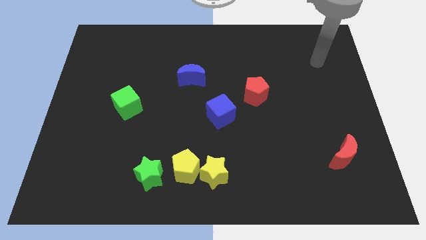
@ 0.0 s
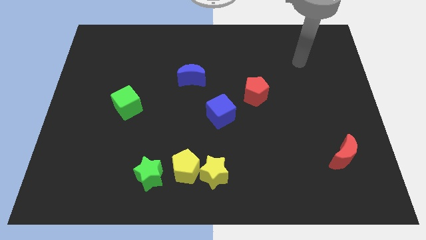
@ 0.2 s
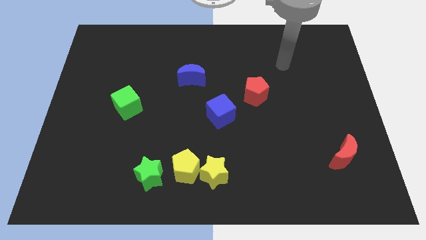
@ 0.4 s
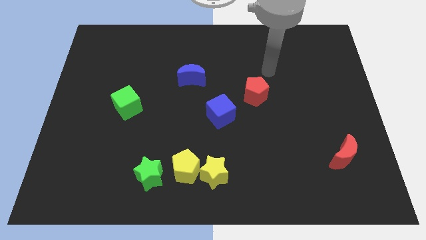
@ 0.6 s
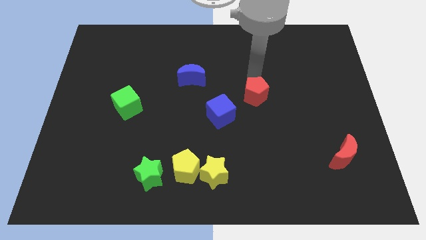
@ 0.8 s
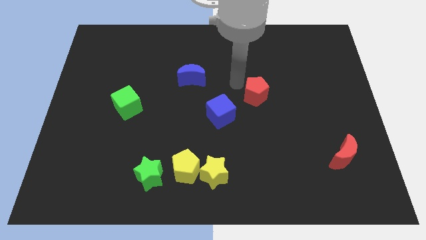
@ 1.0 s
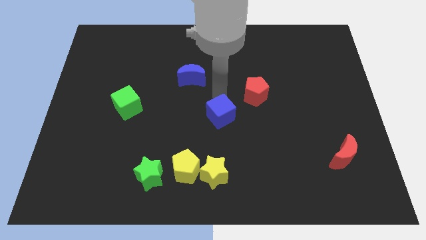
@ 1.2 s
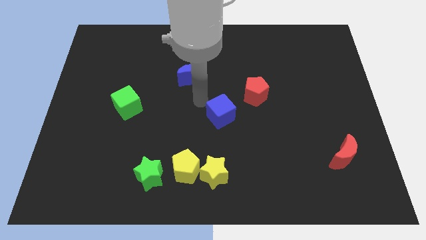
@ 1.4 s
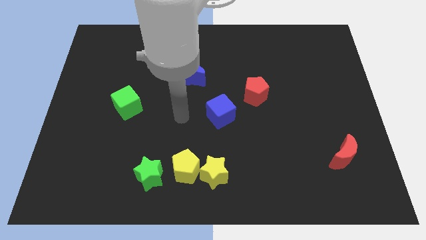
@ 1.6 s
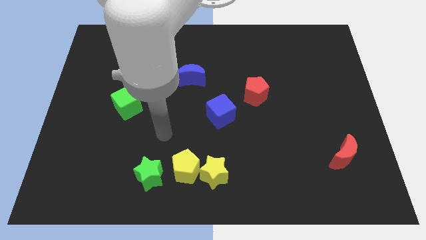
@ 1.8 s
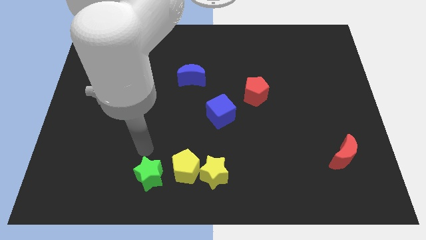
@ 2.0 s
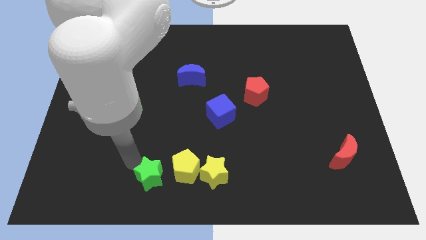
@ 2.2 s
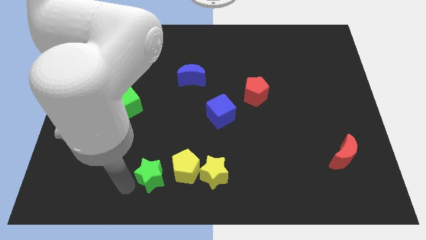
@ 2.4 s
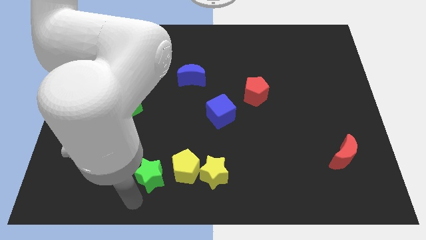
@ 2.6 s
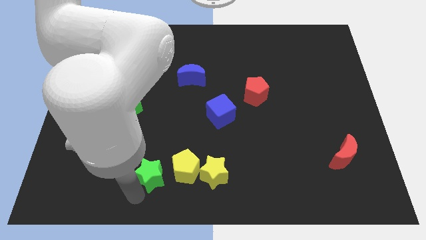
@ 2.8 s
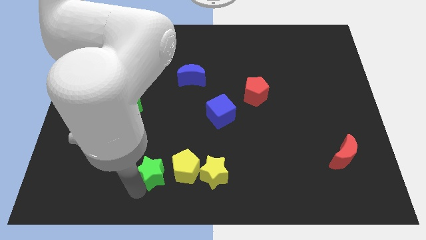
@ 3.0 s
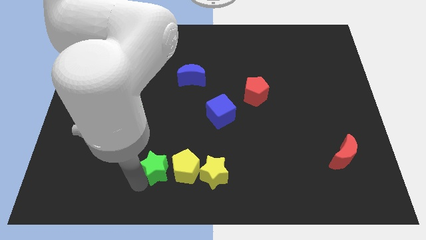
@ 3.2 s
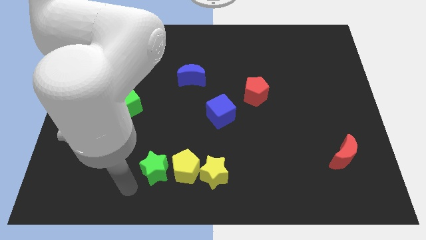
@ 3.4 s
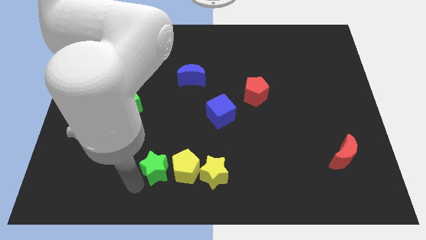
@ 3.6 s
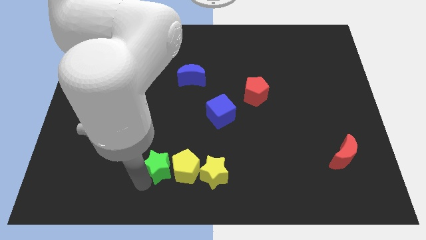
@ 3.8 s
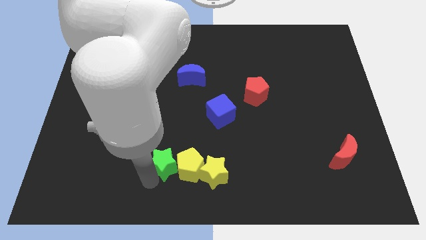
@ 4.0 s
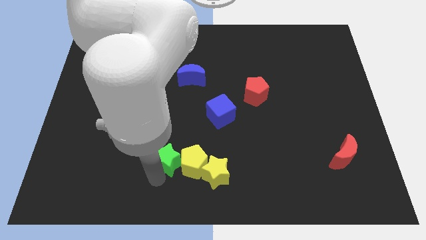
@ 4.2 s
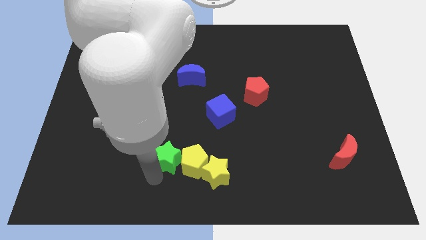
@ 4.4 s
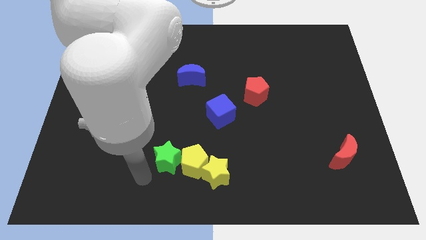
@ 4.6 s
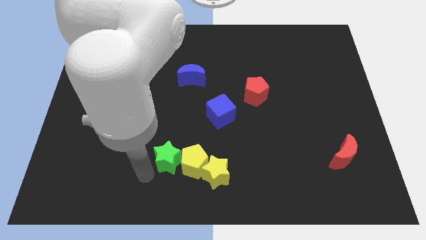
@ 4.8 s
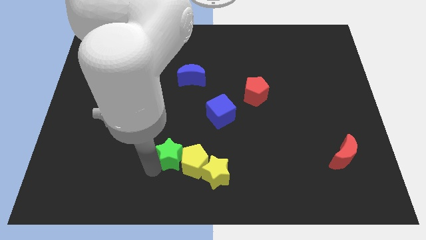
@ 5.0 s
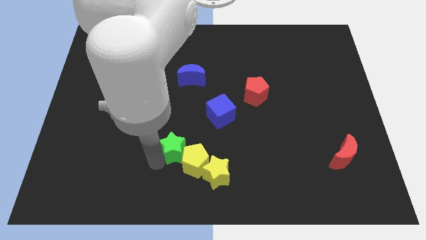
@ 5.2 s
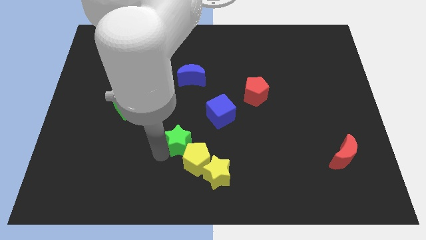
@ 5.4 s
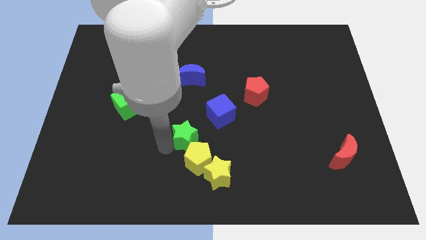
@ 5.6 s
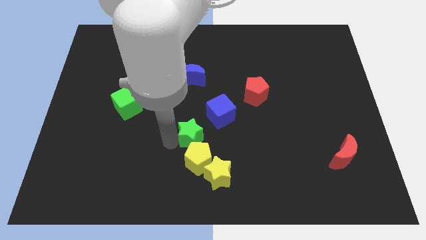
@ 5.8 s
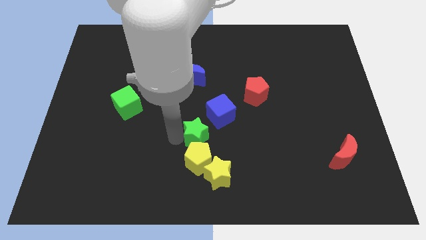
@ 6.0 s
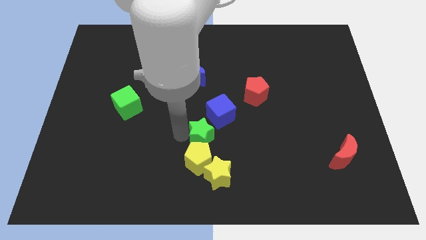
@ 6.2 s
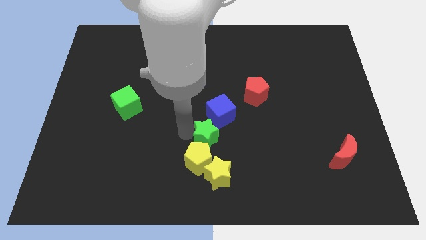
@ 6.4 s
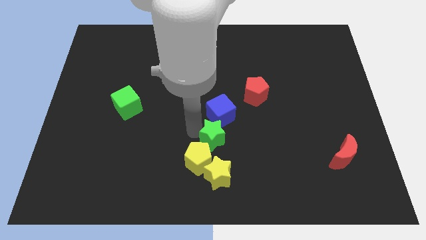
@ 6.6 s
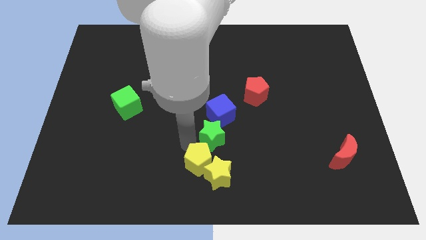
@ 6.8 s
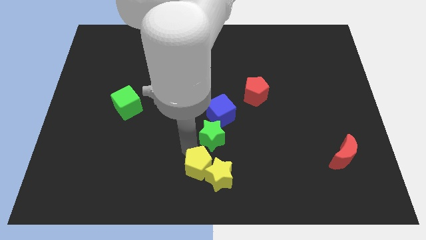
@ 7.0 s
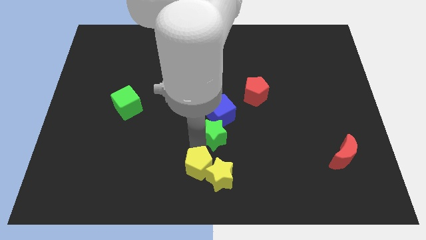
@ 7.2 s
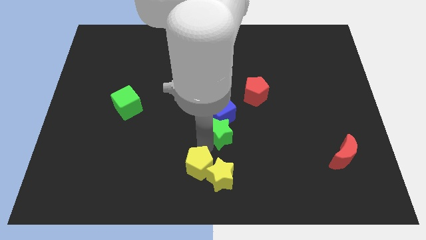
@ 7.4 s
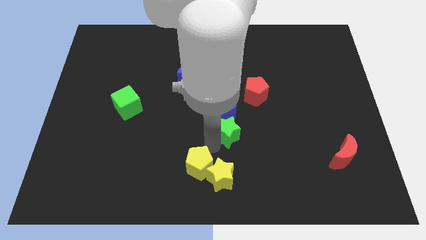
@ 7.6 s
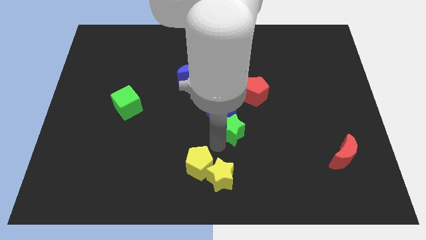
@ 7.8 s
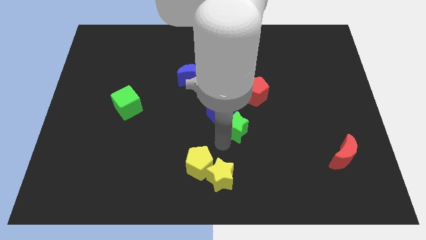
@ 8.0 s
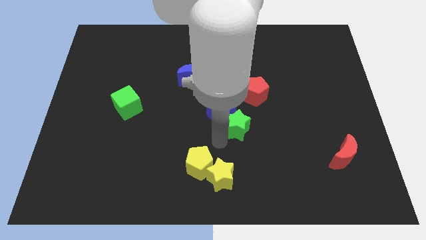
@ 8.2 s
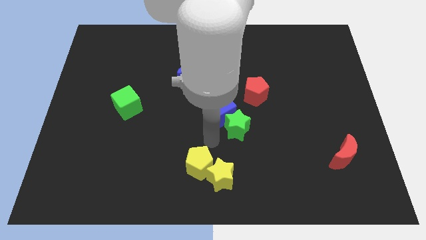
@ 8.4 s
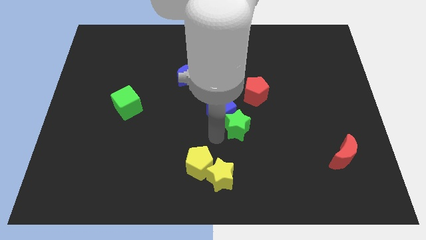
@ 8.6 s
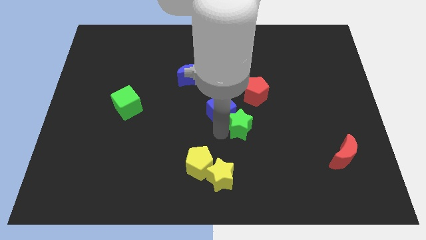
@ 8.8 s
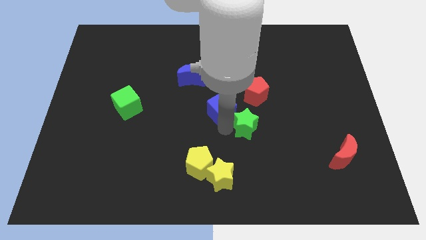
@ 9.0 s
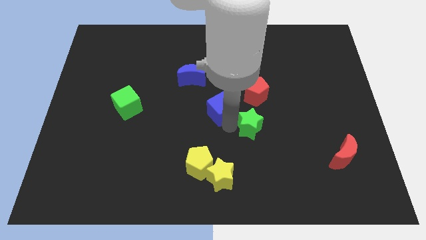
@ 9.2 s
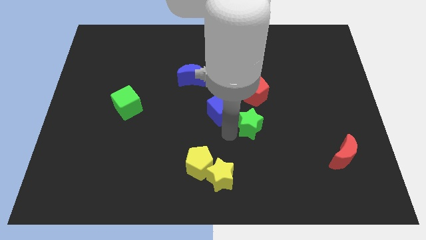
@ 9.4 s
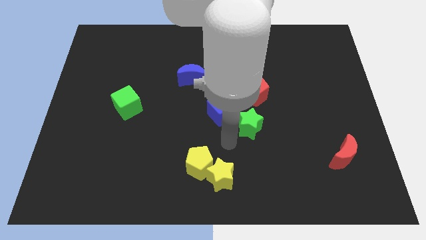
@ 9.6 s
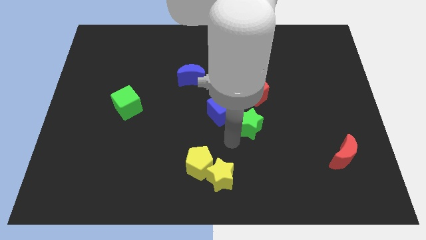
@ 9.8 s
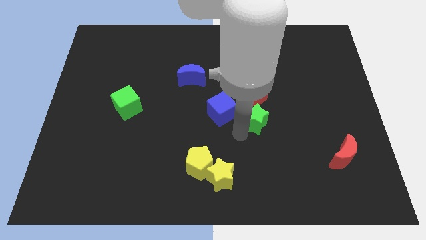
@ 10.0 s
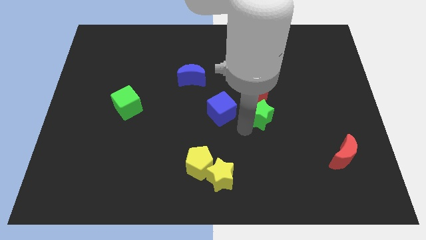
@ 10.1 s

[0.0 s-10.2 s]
put the green star to the bottom right of the red pentagon

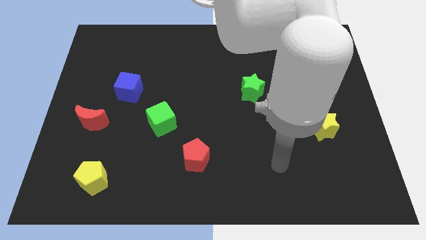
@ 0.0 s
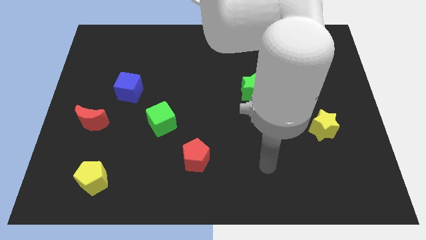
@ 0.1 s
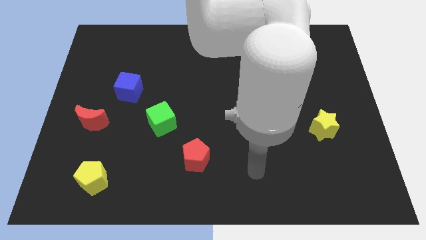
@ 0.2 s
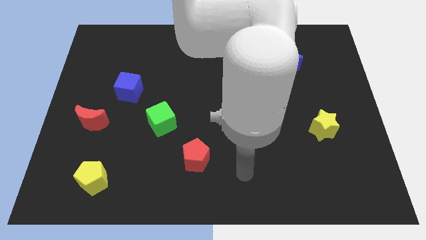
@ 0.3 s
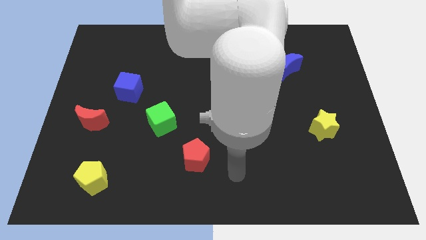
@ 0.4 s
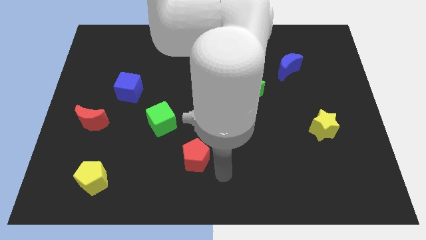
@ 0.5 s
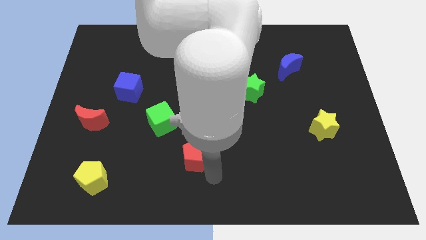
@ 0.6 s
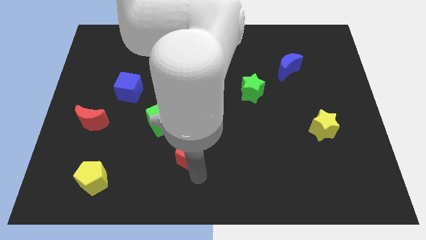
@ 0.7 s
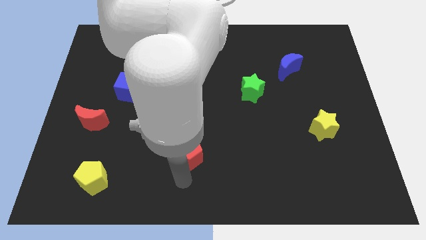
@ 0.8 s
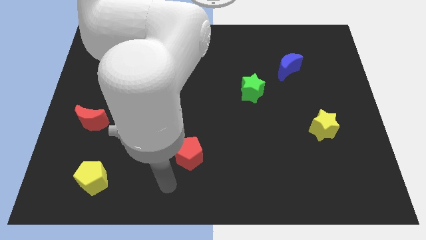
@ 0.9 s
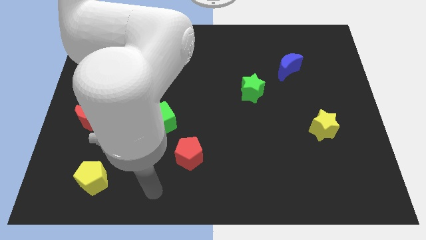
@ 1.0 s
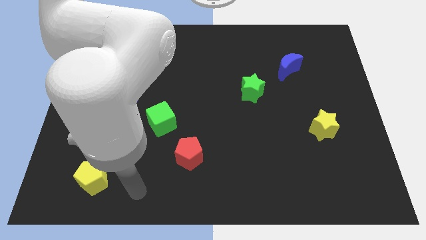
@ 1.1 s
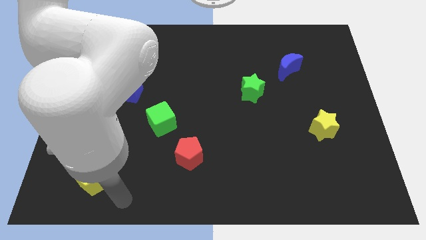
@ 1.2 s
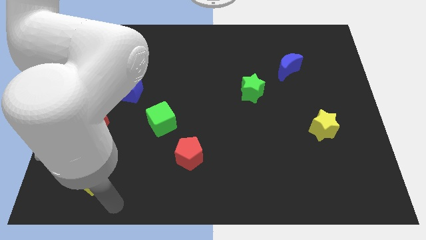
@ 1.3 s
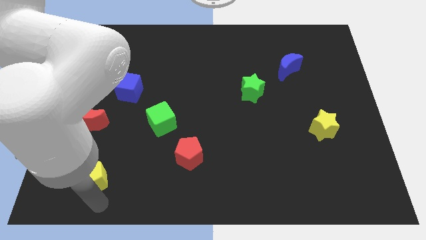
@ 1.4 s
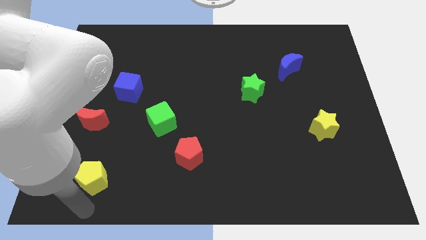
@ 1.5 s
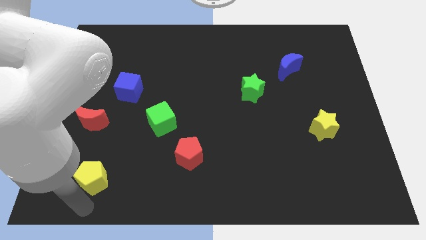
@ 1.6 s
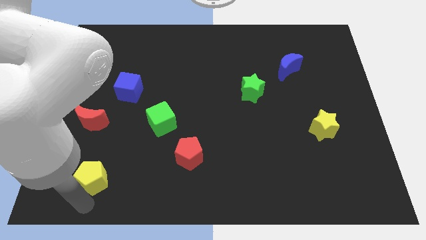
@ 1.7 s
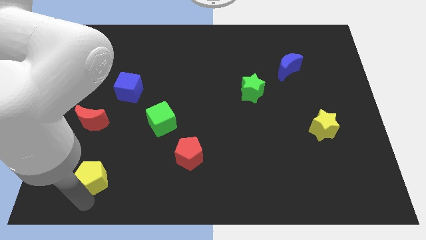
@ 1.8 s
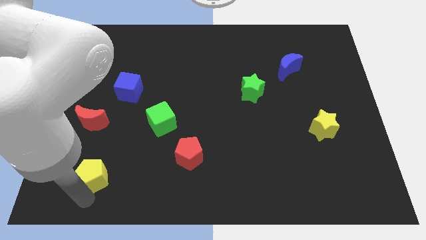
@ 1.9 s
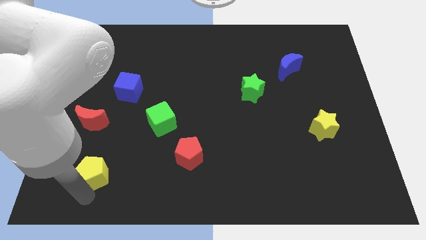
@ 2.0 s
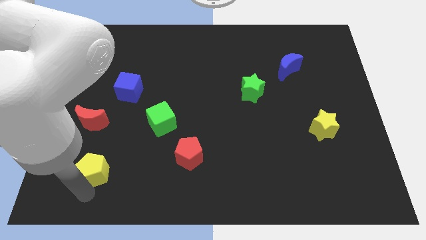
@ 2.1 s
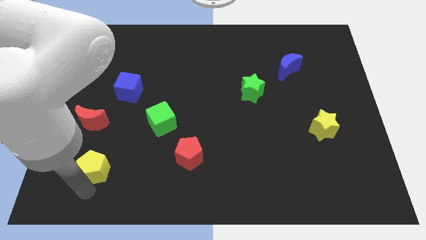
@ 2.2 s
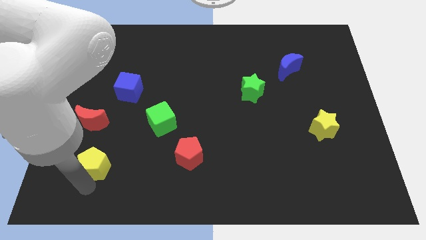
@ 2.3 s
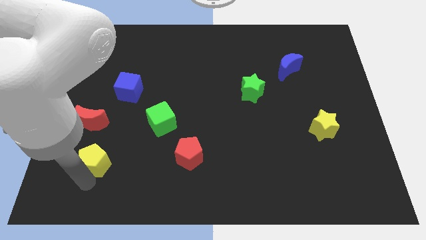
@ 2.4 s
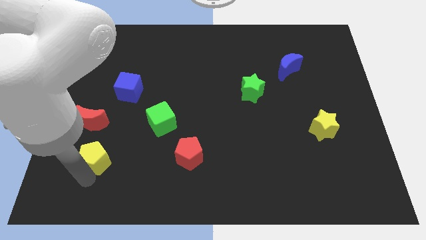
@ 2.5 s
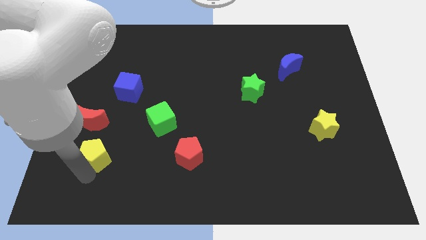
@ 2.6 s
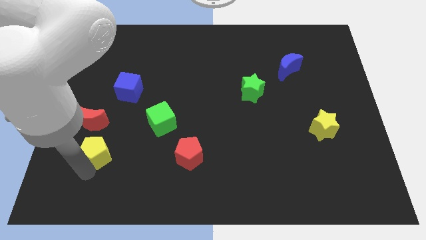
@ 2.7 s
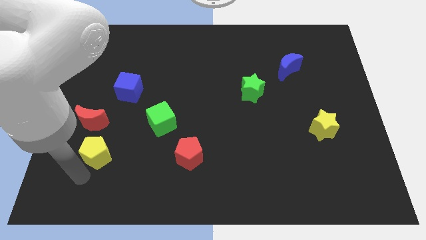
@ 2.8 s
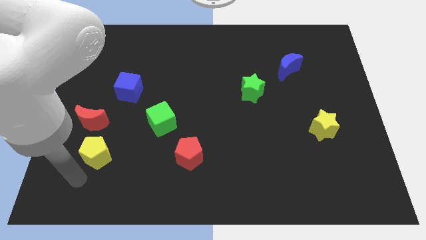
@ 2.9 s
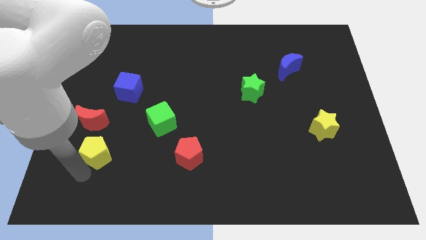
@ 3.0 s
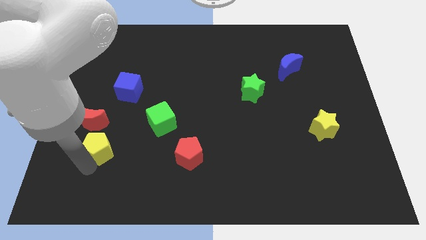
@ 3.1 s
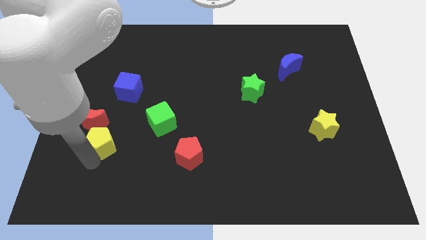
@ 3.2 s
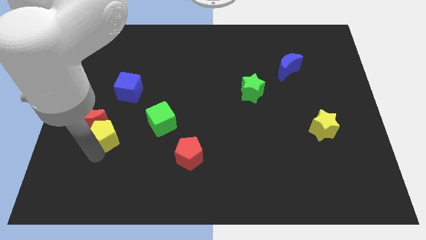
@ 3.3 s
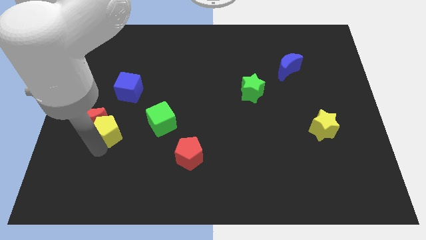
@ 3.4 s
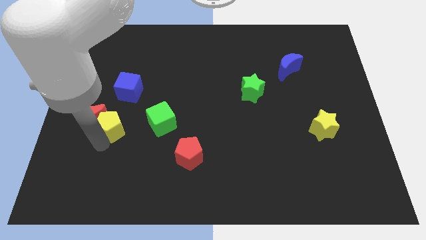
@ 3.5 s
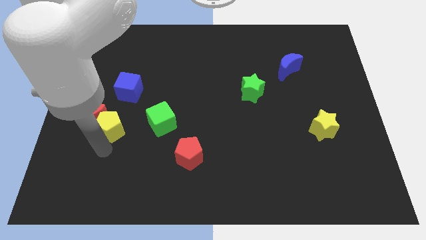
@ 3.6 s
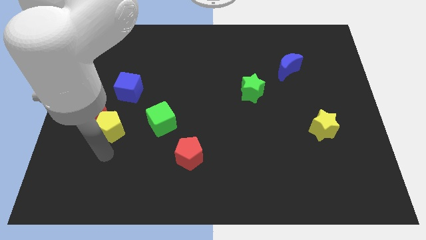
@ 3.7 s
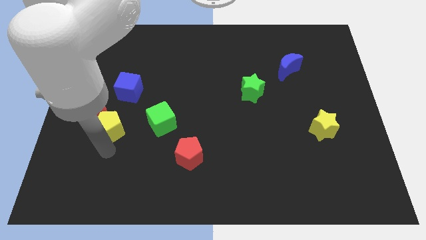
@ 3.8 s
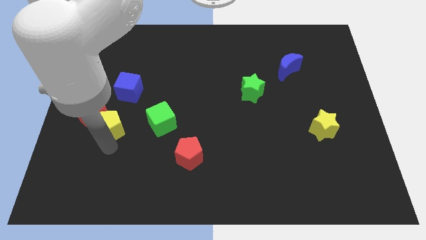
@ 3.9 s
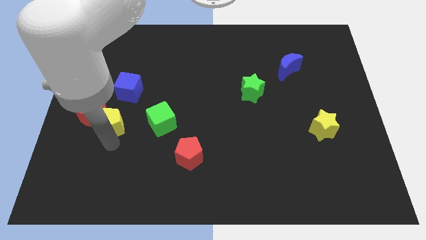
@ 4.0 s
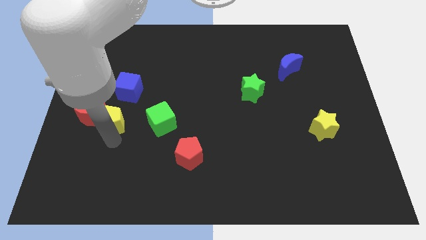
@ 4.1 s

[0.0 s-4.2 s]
put the yellow pentagon to the top right side of the red moon
